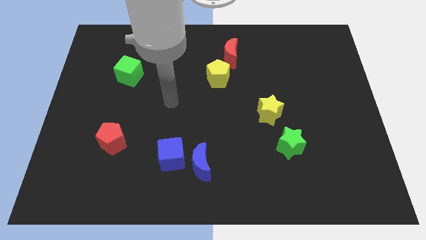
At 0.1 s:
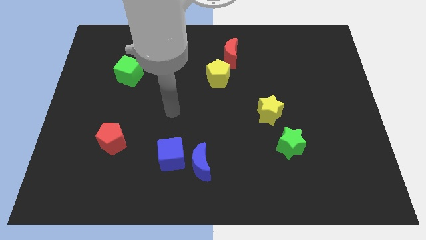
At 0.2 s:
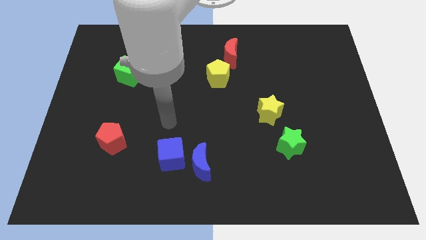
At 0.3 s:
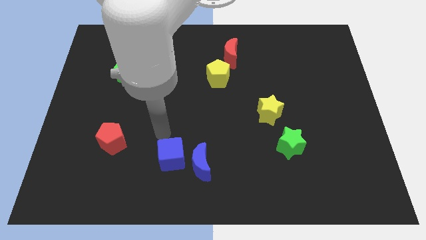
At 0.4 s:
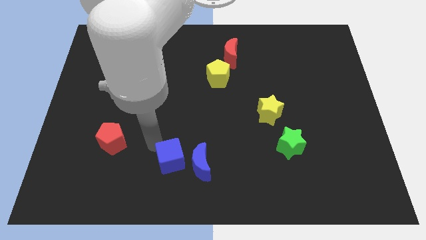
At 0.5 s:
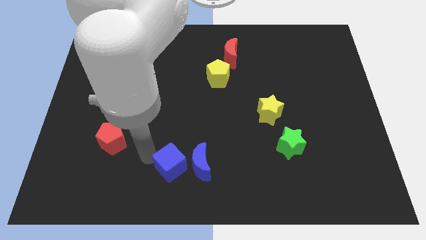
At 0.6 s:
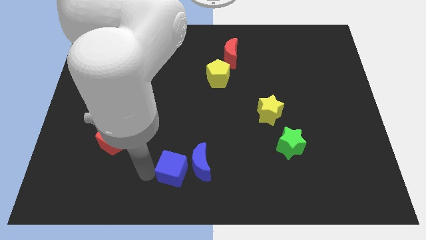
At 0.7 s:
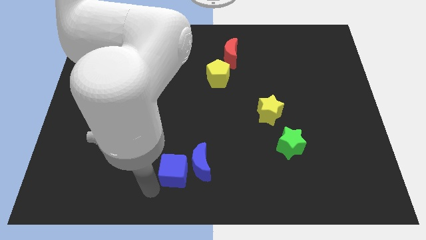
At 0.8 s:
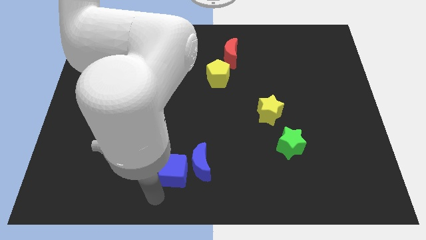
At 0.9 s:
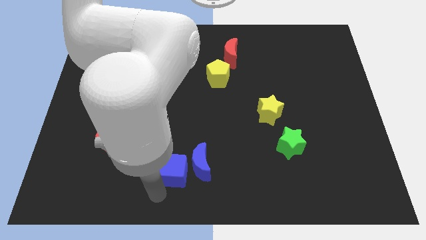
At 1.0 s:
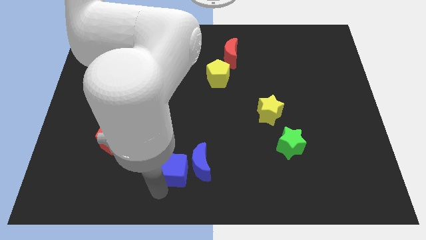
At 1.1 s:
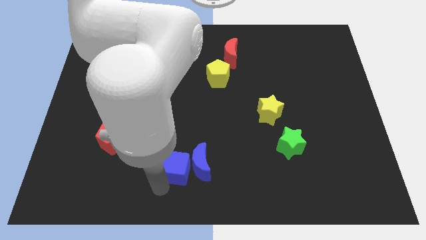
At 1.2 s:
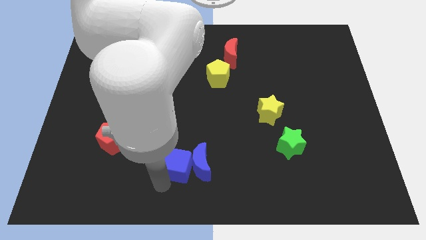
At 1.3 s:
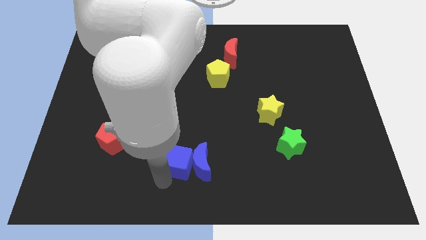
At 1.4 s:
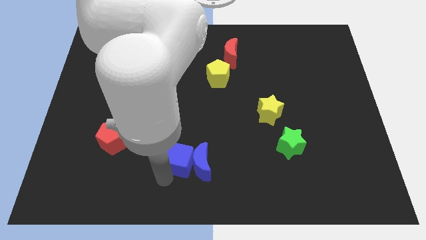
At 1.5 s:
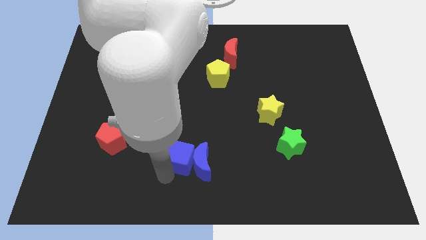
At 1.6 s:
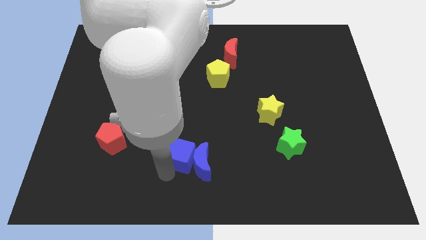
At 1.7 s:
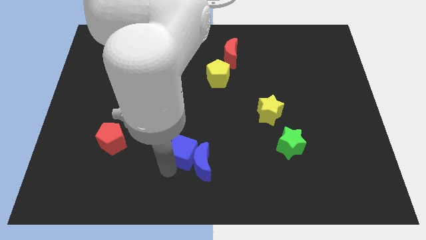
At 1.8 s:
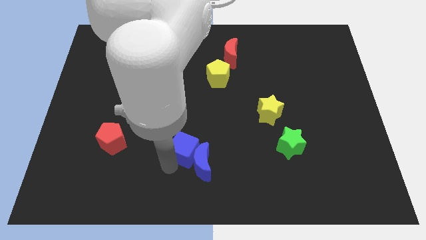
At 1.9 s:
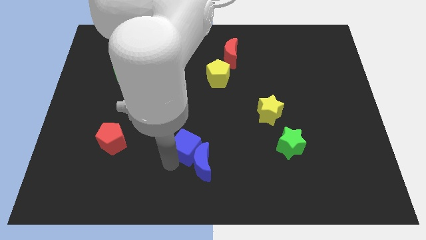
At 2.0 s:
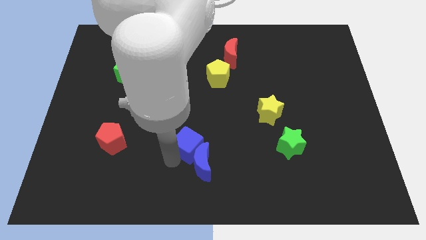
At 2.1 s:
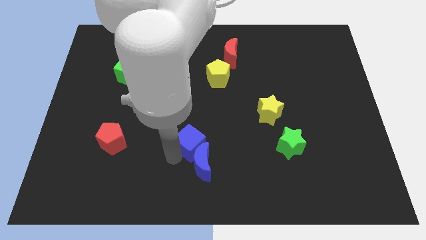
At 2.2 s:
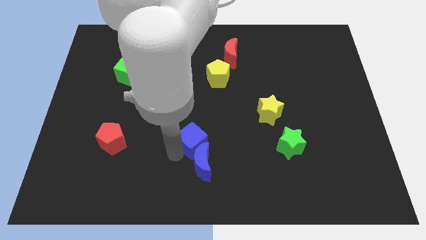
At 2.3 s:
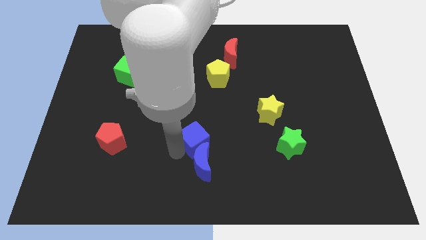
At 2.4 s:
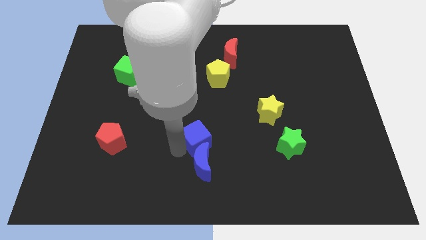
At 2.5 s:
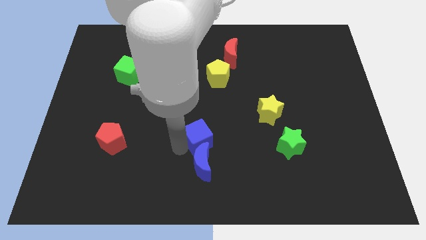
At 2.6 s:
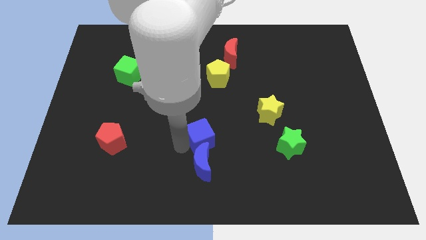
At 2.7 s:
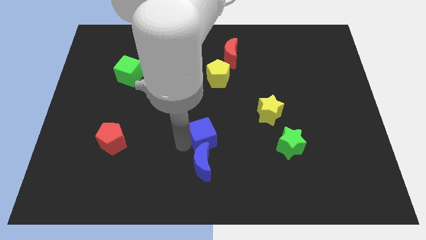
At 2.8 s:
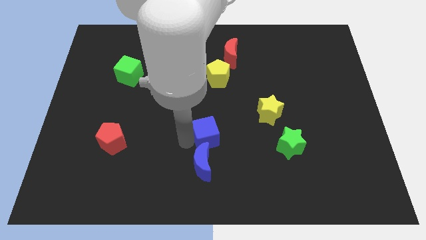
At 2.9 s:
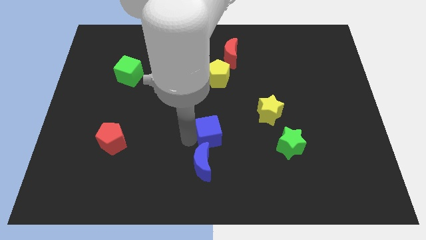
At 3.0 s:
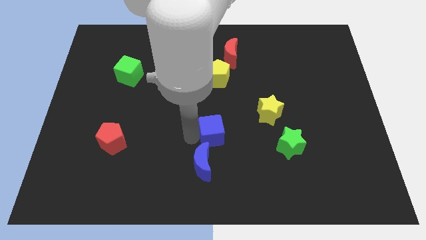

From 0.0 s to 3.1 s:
slide the blue cube a little to the right

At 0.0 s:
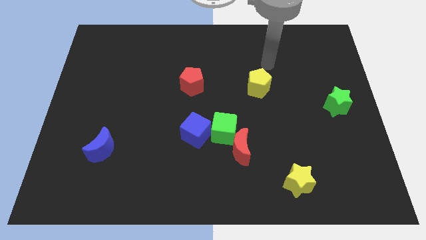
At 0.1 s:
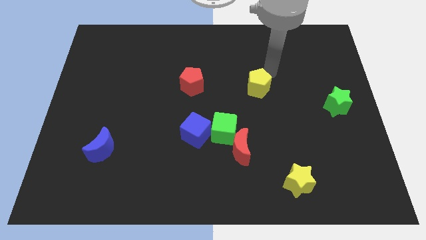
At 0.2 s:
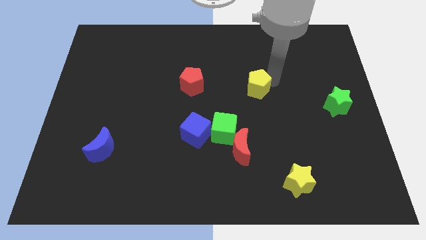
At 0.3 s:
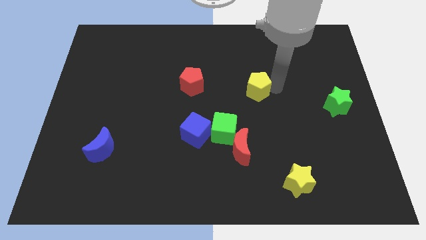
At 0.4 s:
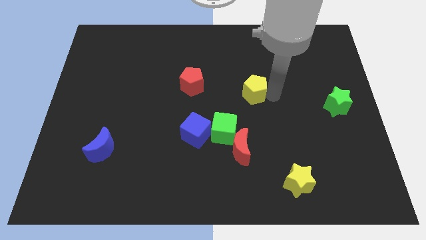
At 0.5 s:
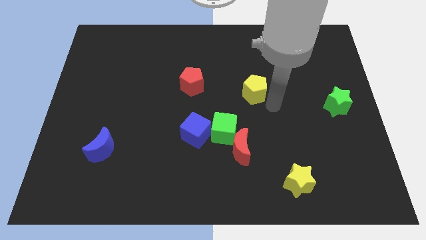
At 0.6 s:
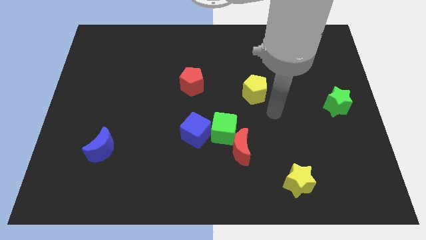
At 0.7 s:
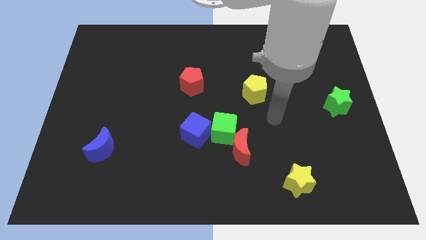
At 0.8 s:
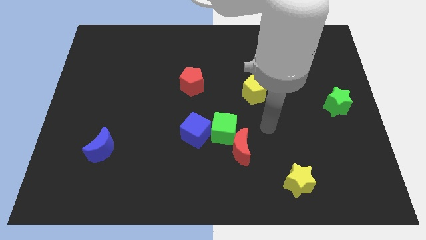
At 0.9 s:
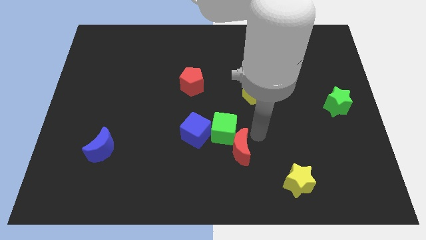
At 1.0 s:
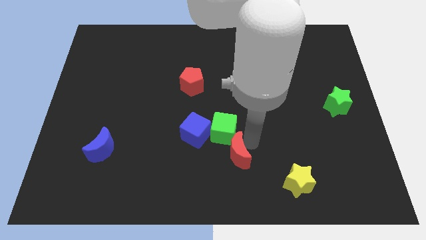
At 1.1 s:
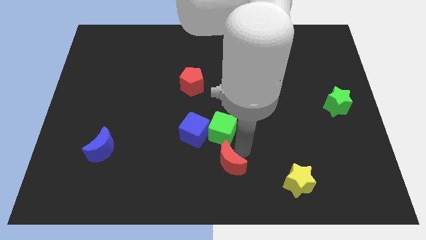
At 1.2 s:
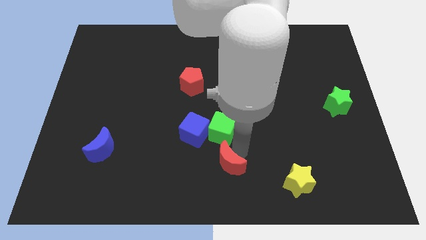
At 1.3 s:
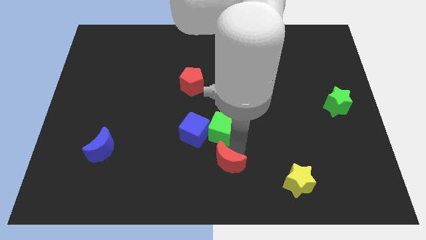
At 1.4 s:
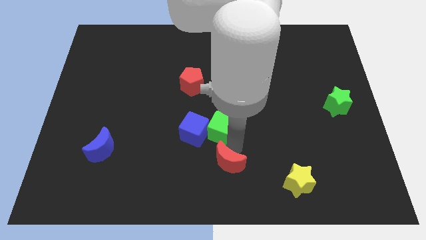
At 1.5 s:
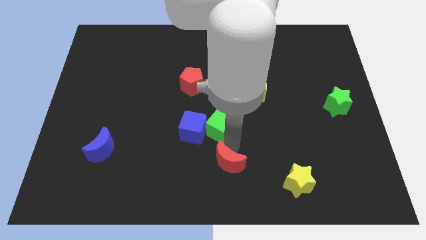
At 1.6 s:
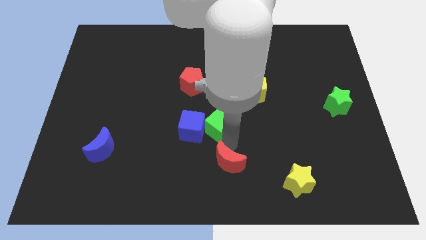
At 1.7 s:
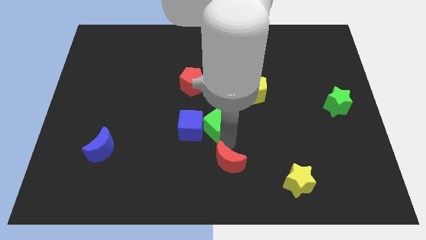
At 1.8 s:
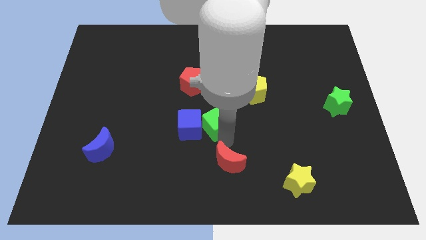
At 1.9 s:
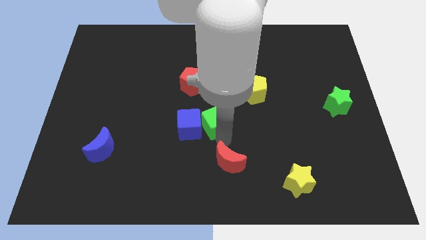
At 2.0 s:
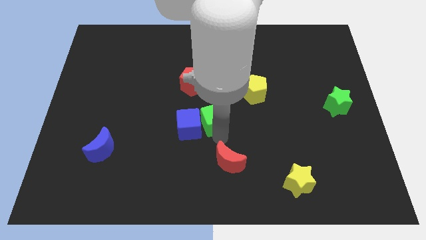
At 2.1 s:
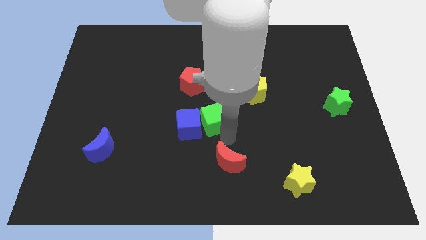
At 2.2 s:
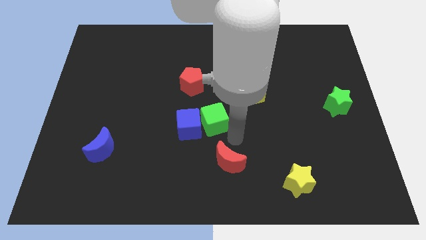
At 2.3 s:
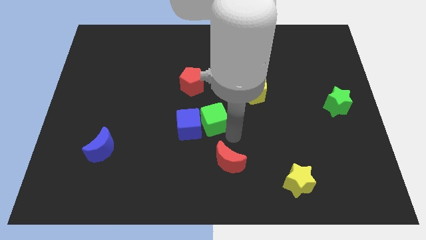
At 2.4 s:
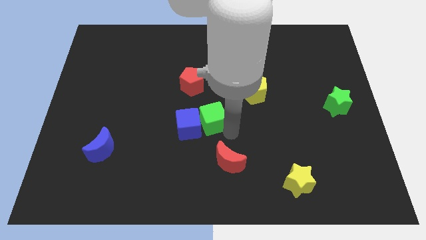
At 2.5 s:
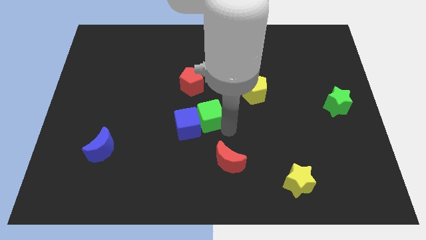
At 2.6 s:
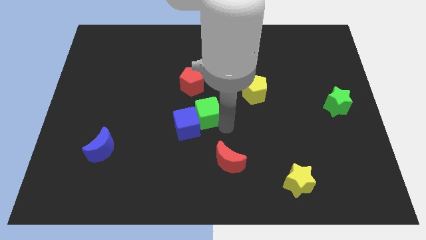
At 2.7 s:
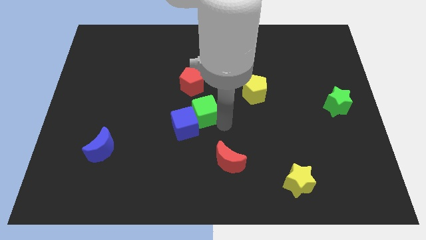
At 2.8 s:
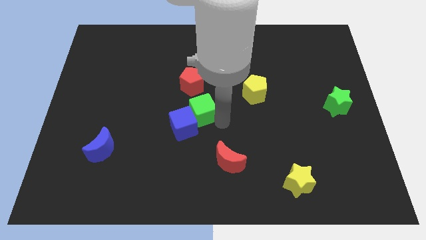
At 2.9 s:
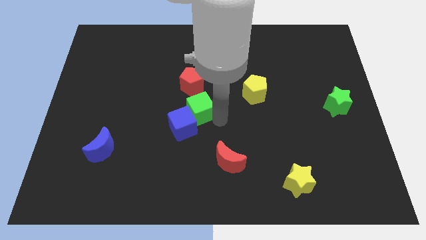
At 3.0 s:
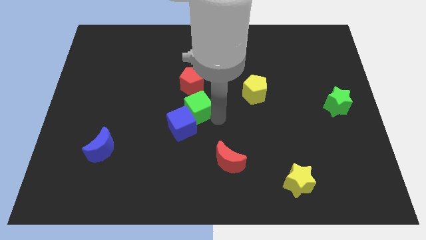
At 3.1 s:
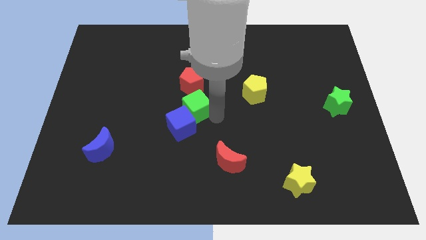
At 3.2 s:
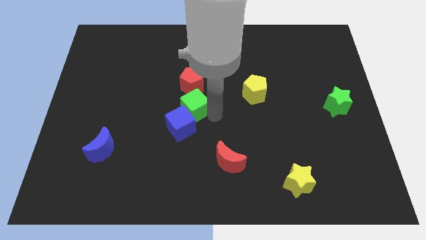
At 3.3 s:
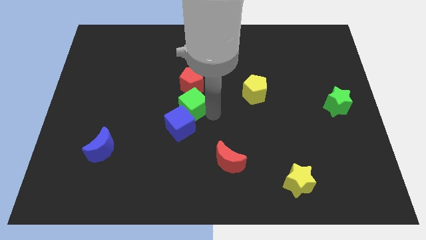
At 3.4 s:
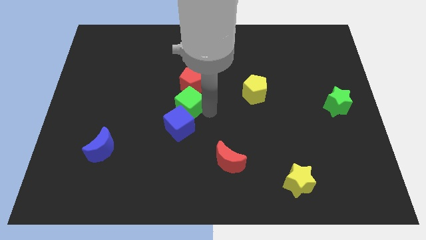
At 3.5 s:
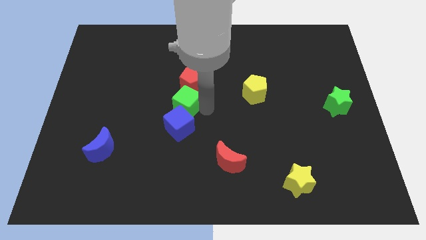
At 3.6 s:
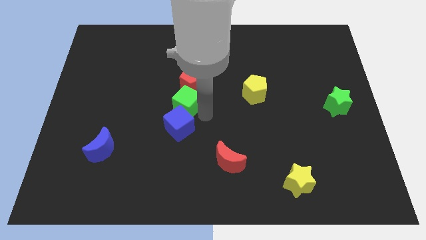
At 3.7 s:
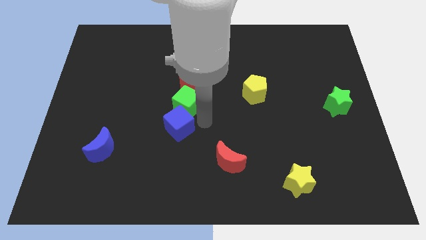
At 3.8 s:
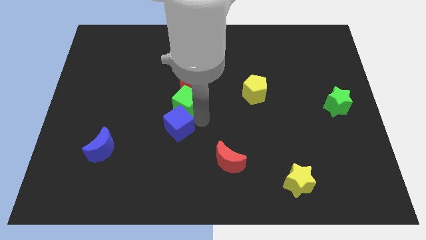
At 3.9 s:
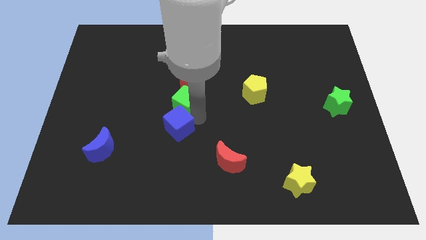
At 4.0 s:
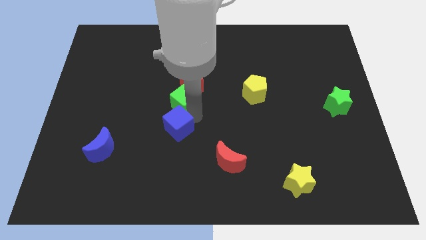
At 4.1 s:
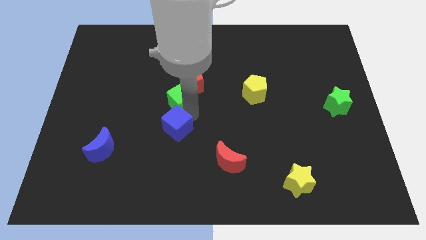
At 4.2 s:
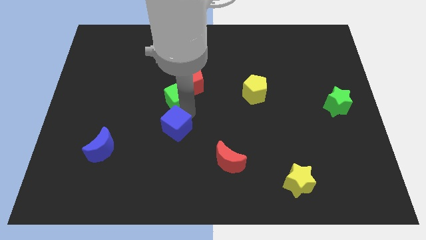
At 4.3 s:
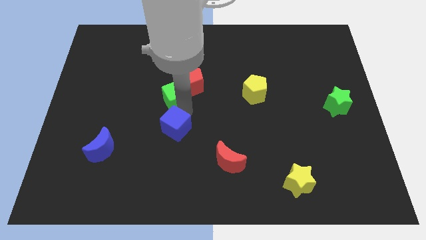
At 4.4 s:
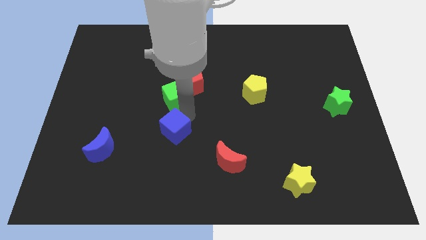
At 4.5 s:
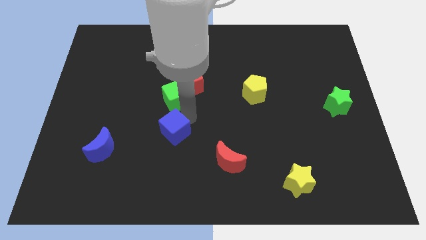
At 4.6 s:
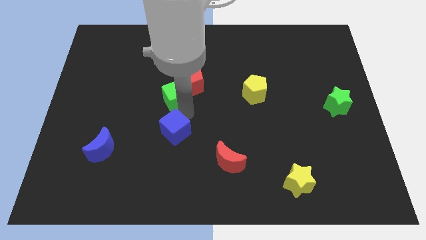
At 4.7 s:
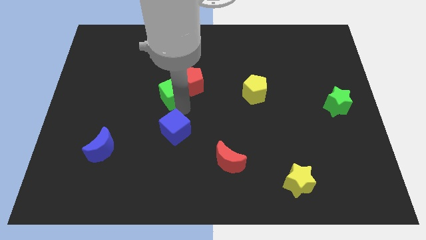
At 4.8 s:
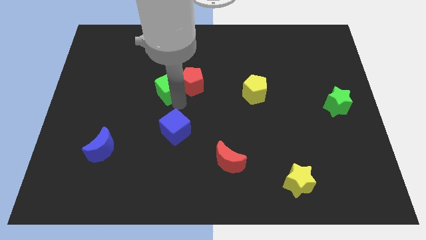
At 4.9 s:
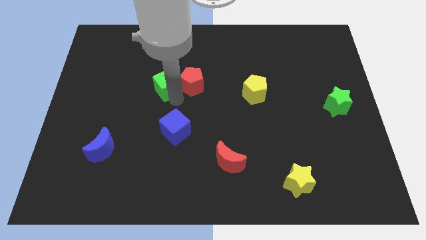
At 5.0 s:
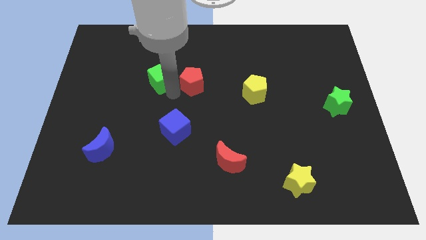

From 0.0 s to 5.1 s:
slide the green cube upwards and then left
